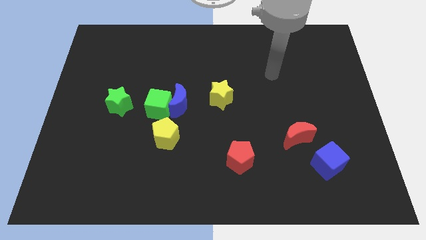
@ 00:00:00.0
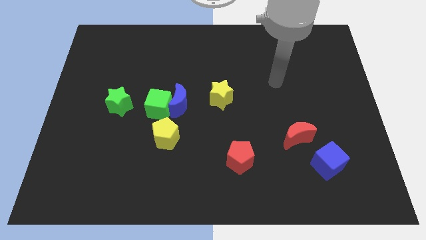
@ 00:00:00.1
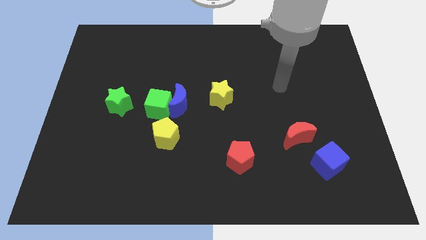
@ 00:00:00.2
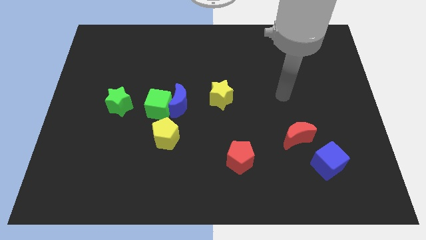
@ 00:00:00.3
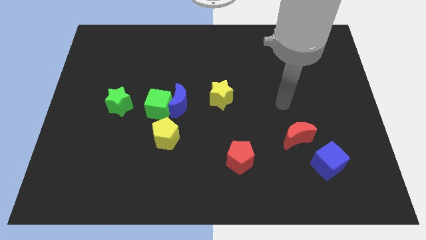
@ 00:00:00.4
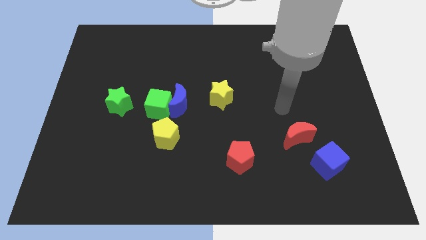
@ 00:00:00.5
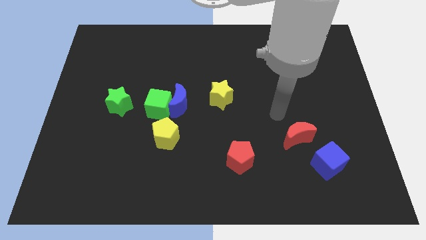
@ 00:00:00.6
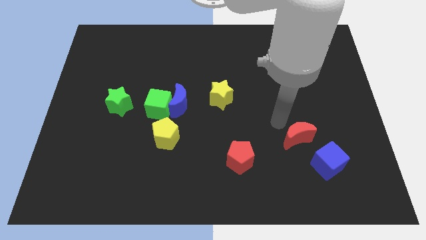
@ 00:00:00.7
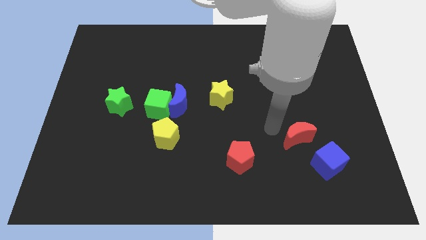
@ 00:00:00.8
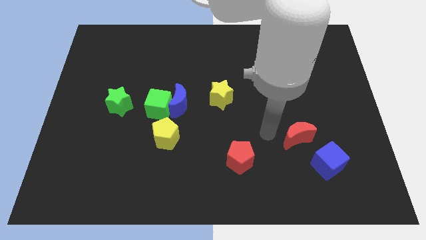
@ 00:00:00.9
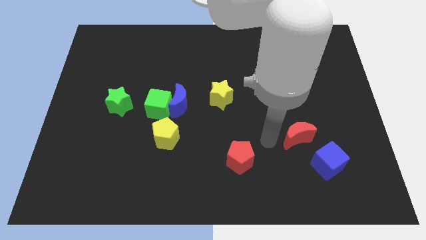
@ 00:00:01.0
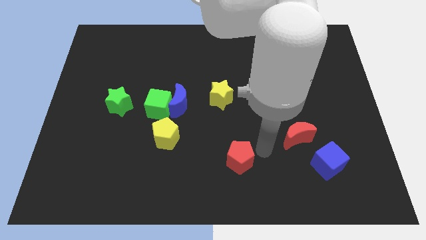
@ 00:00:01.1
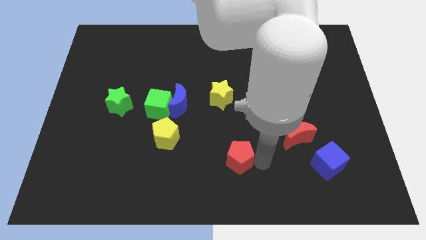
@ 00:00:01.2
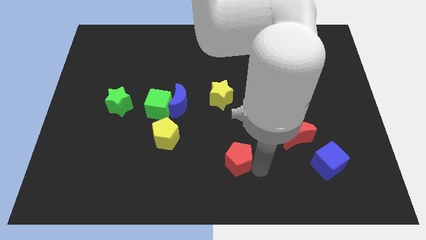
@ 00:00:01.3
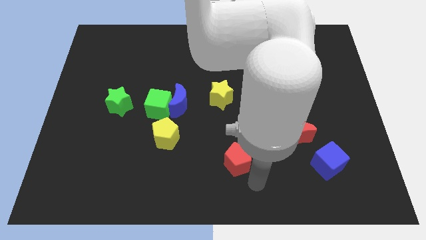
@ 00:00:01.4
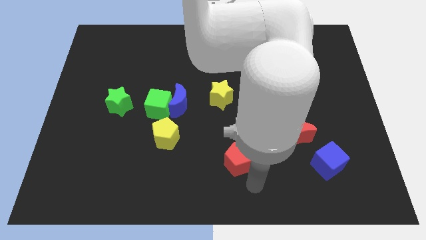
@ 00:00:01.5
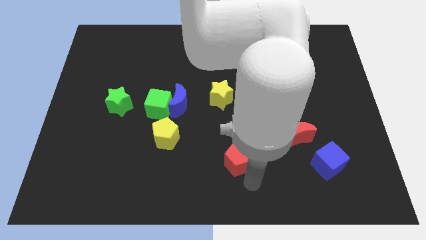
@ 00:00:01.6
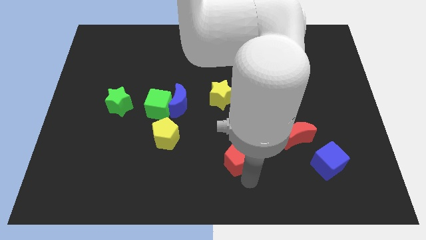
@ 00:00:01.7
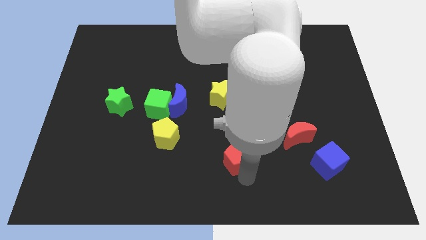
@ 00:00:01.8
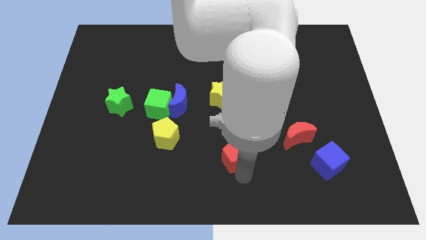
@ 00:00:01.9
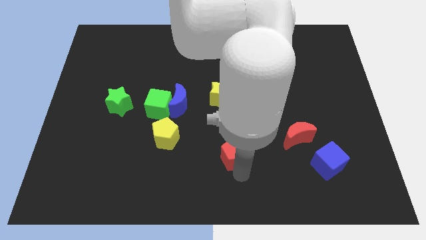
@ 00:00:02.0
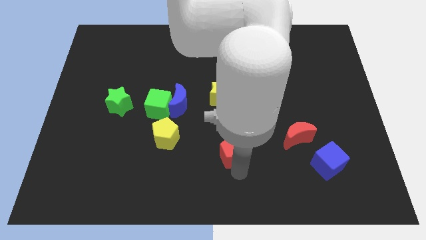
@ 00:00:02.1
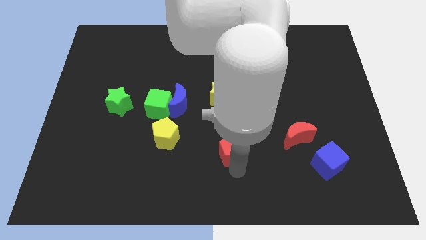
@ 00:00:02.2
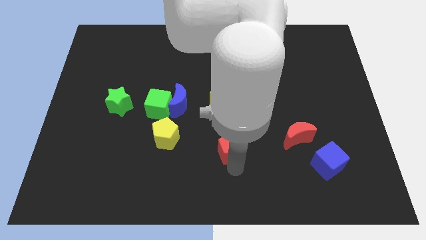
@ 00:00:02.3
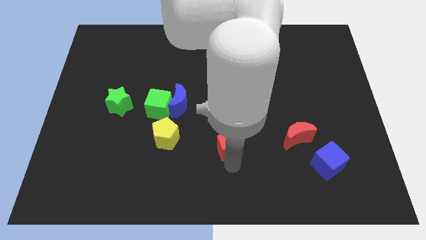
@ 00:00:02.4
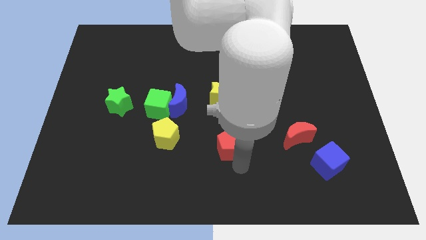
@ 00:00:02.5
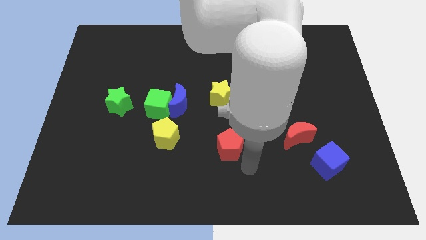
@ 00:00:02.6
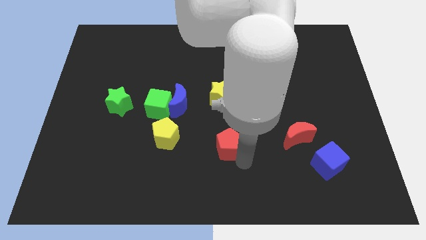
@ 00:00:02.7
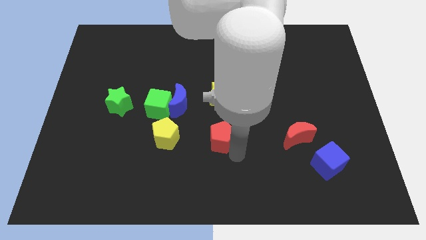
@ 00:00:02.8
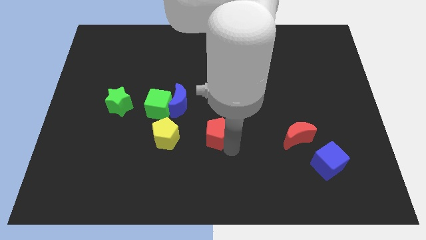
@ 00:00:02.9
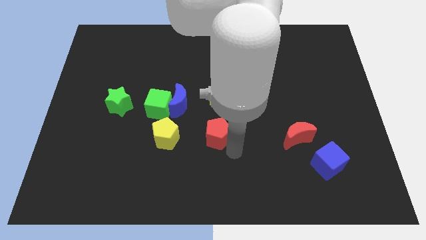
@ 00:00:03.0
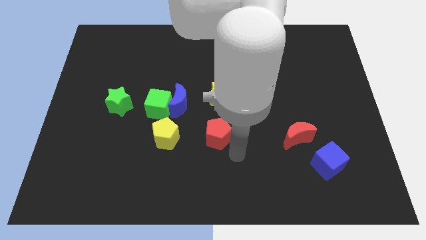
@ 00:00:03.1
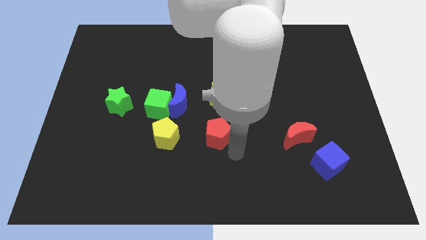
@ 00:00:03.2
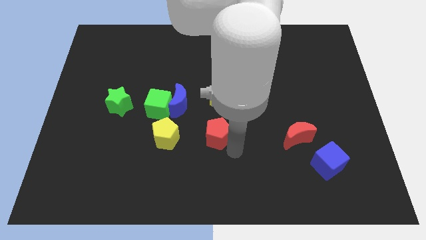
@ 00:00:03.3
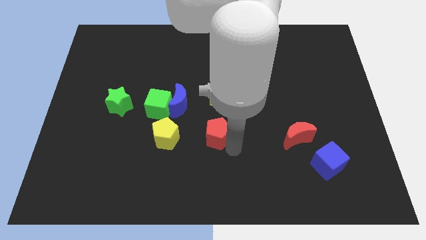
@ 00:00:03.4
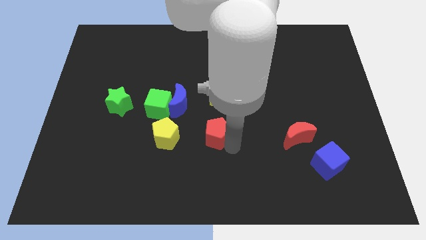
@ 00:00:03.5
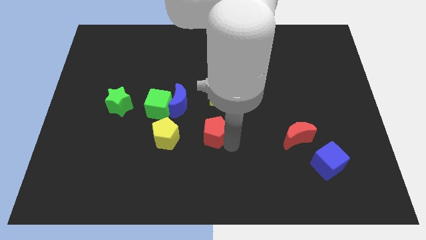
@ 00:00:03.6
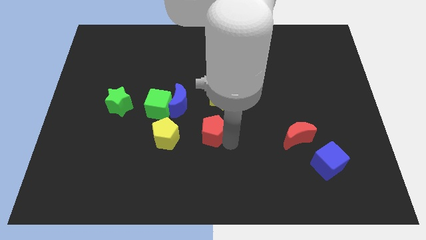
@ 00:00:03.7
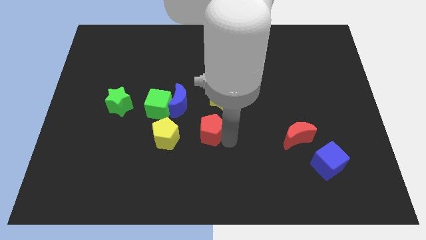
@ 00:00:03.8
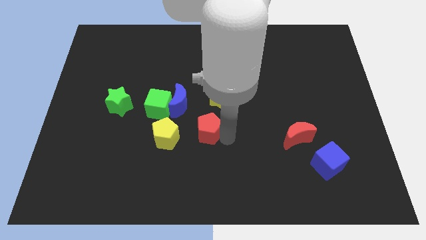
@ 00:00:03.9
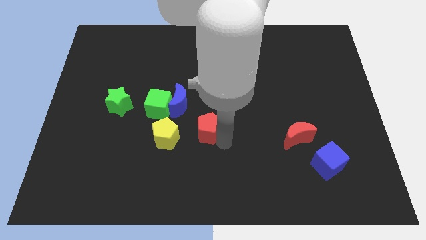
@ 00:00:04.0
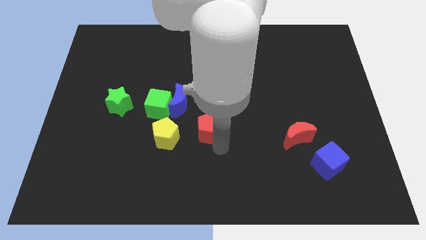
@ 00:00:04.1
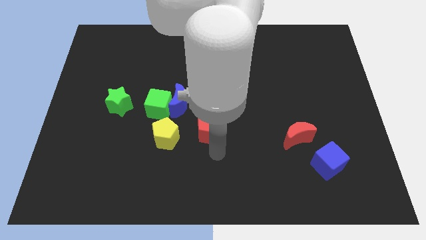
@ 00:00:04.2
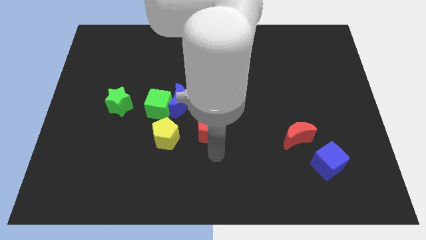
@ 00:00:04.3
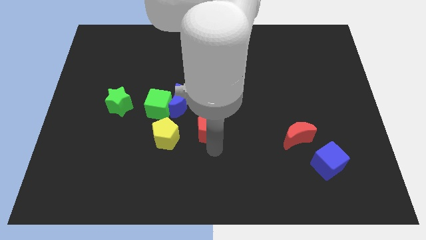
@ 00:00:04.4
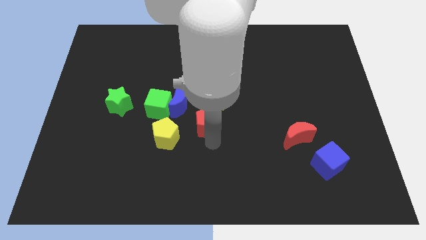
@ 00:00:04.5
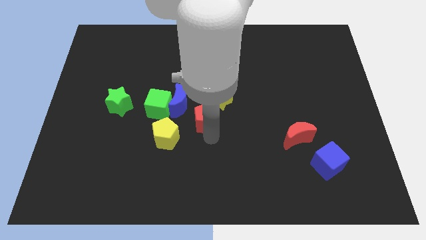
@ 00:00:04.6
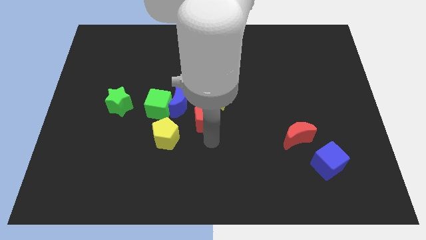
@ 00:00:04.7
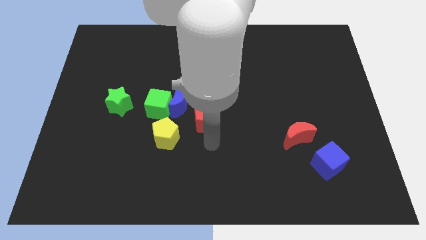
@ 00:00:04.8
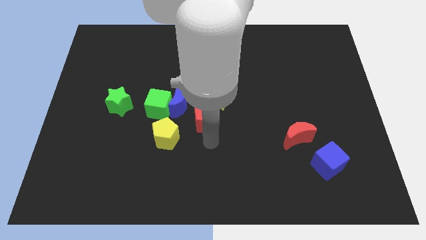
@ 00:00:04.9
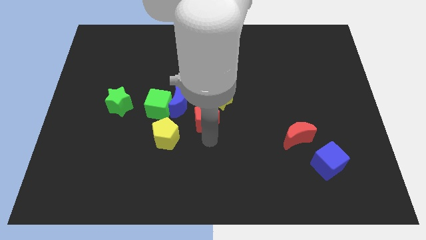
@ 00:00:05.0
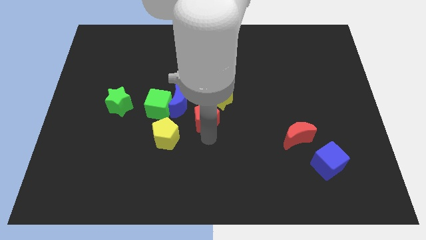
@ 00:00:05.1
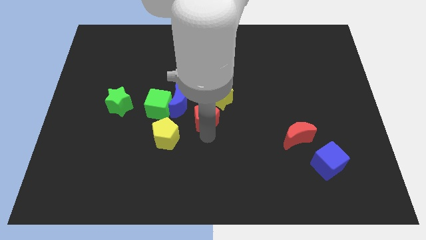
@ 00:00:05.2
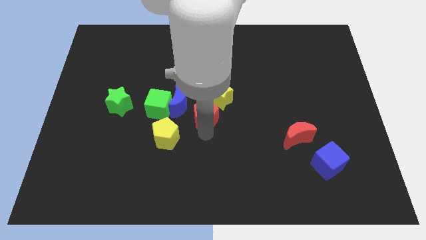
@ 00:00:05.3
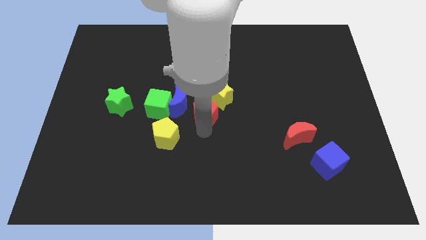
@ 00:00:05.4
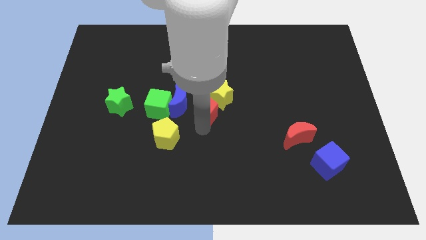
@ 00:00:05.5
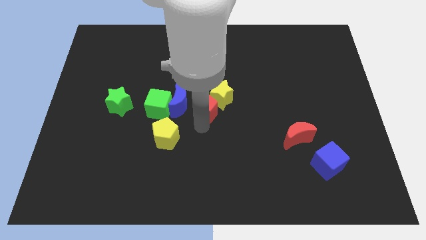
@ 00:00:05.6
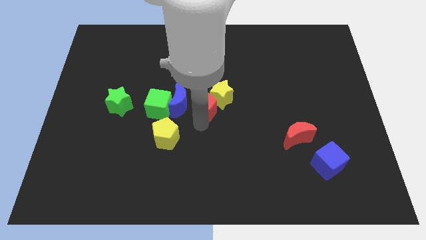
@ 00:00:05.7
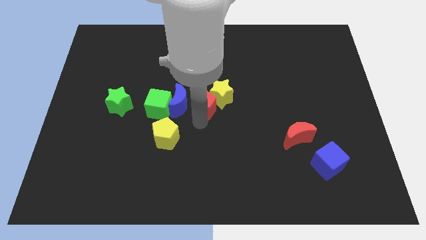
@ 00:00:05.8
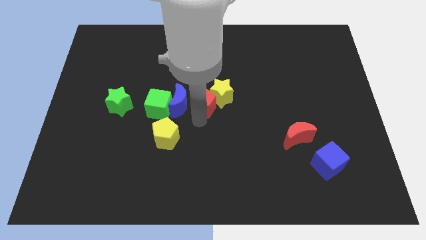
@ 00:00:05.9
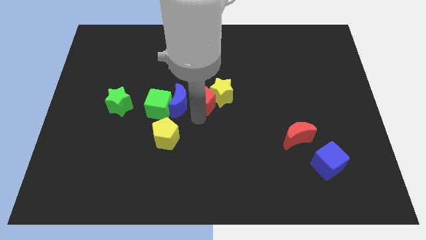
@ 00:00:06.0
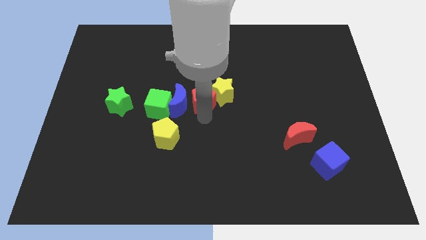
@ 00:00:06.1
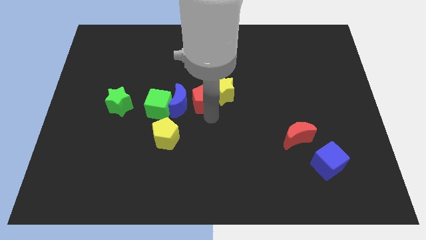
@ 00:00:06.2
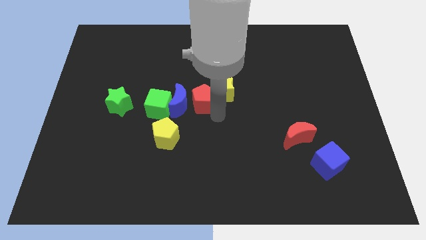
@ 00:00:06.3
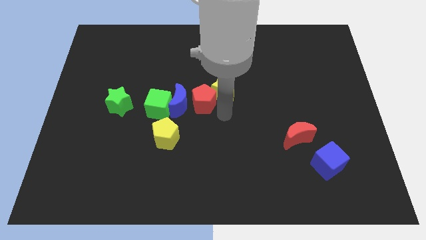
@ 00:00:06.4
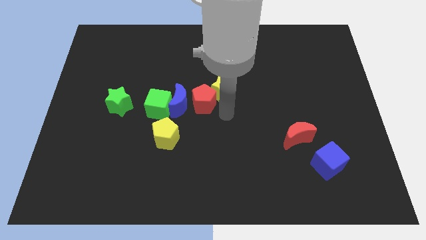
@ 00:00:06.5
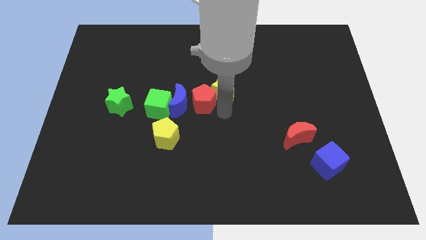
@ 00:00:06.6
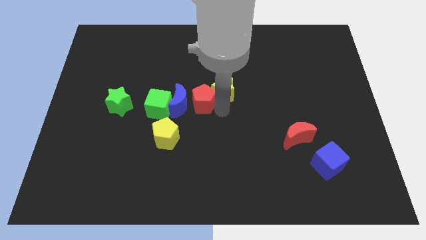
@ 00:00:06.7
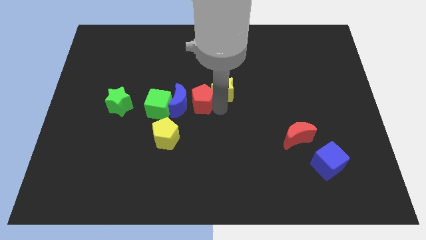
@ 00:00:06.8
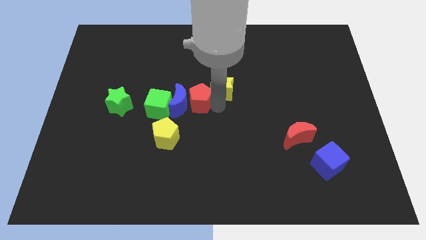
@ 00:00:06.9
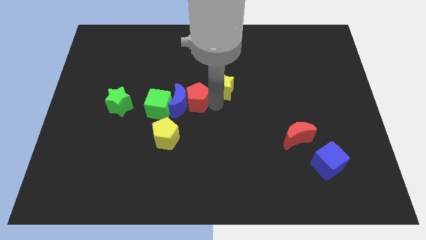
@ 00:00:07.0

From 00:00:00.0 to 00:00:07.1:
put the red pentagon to the top right of the green cube
